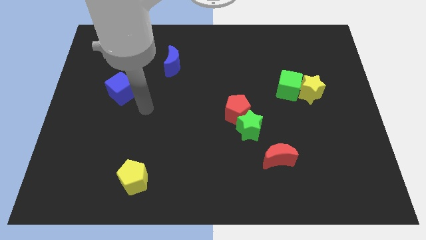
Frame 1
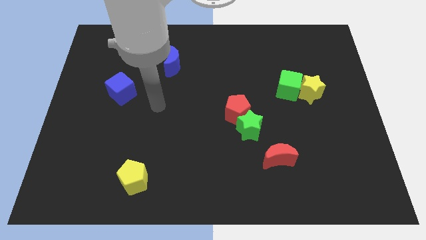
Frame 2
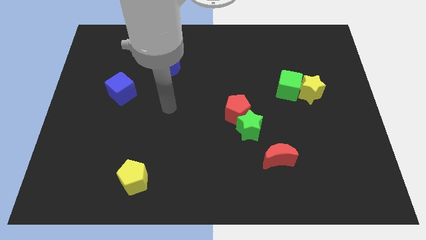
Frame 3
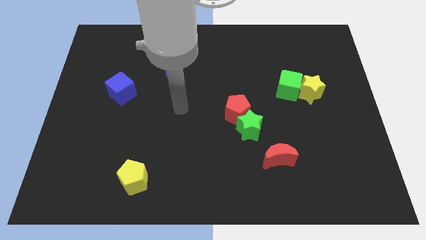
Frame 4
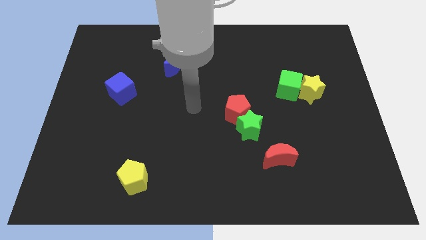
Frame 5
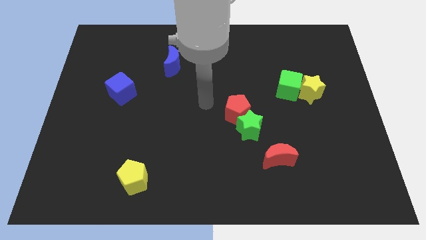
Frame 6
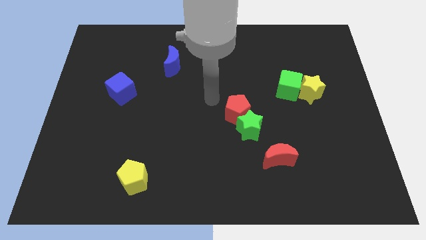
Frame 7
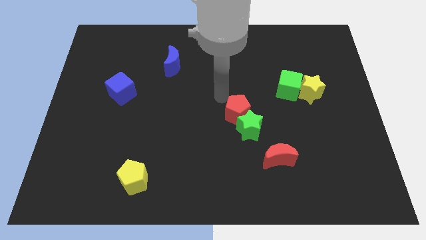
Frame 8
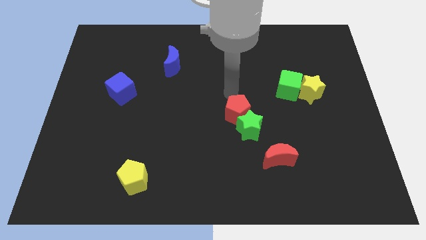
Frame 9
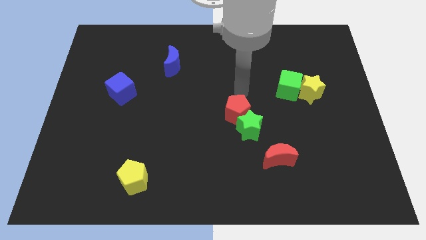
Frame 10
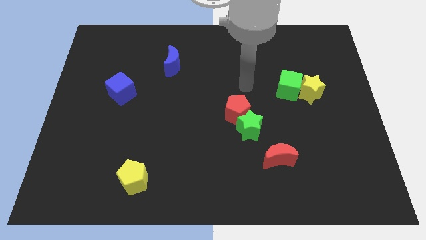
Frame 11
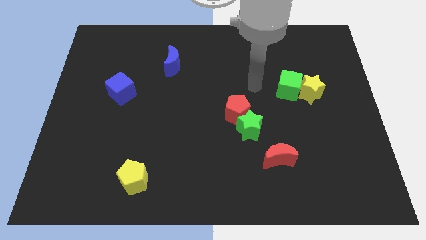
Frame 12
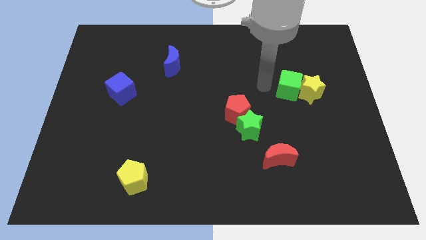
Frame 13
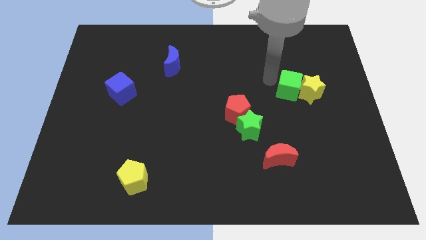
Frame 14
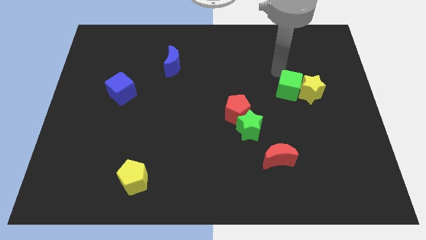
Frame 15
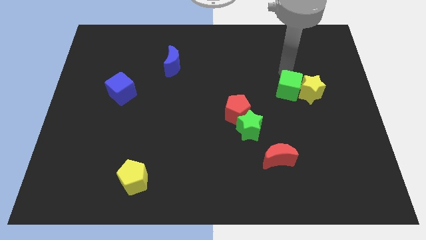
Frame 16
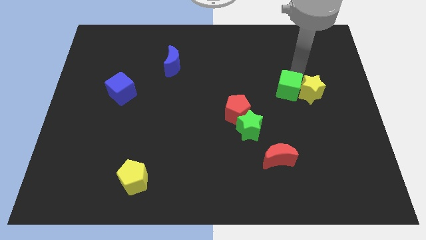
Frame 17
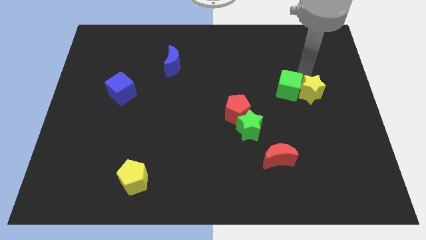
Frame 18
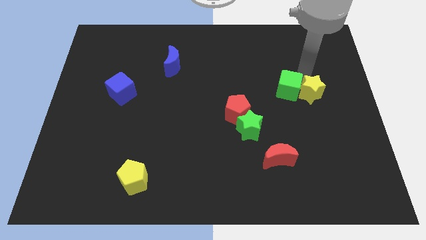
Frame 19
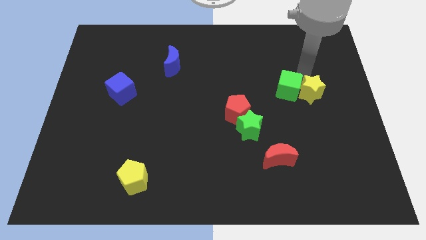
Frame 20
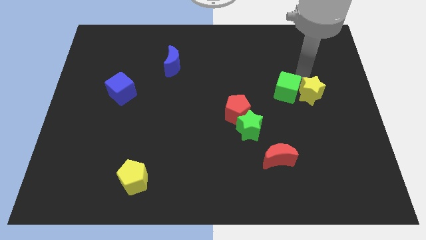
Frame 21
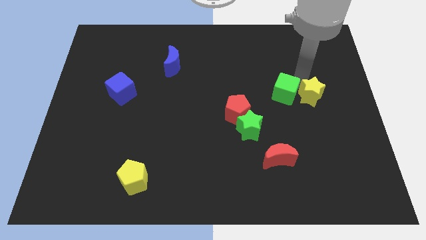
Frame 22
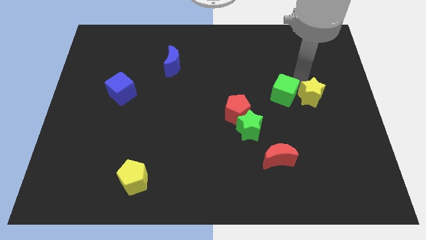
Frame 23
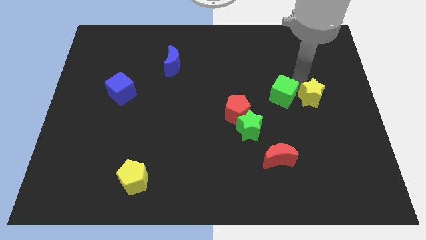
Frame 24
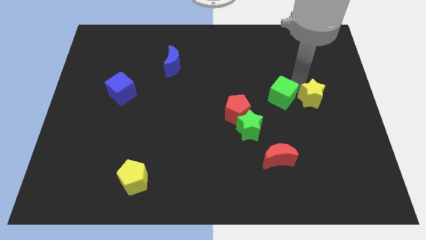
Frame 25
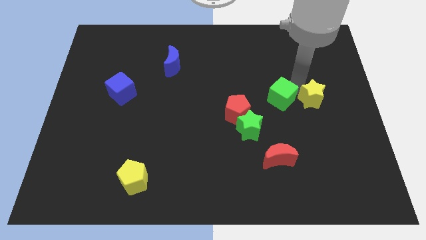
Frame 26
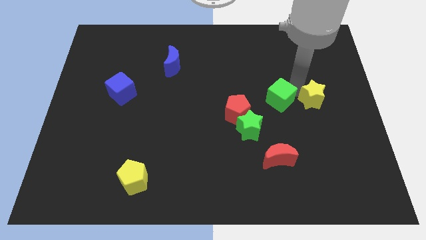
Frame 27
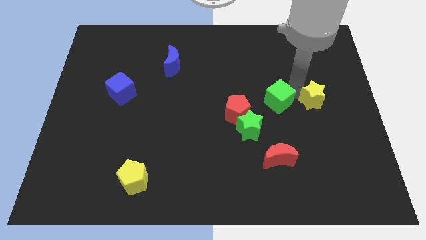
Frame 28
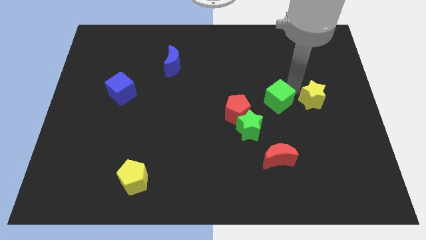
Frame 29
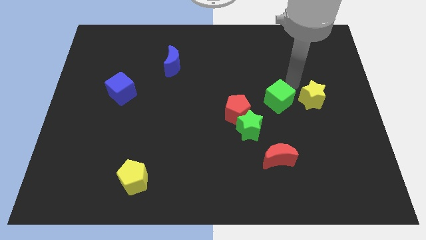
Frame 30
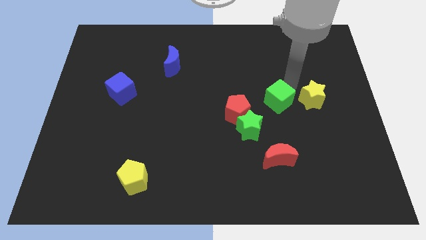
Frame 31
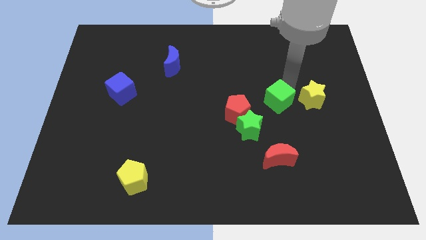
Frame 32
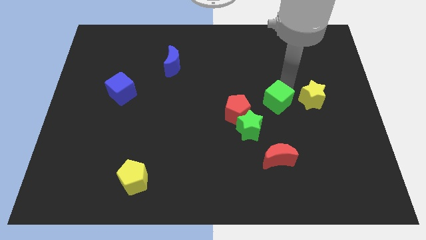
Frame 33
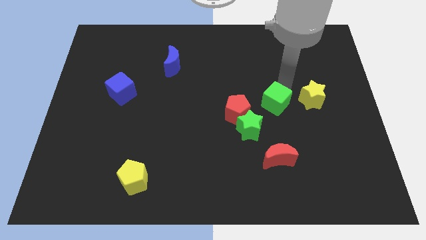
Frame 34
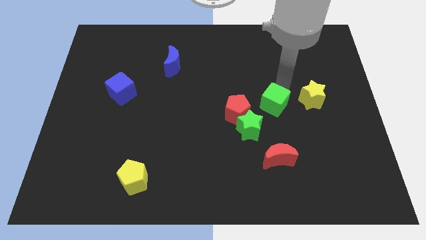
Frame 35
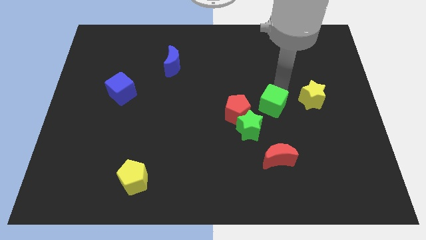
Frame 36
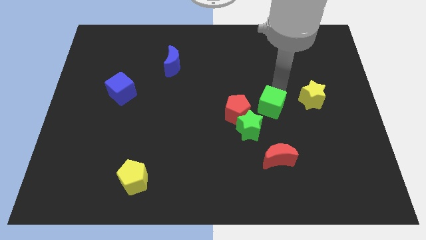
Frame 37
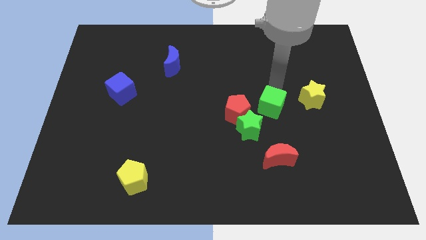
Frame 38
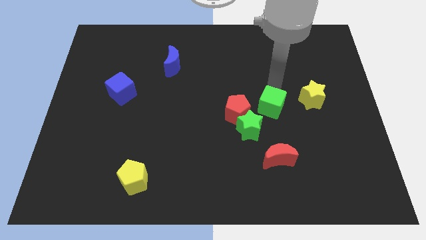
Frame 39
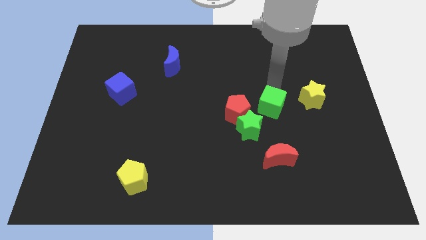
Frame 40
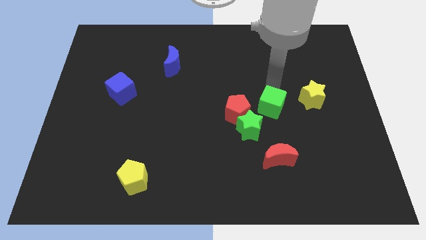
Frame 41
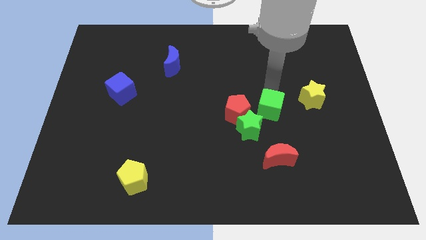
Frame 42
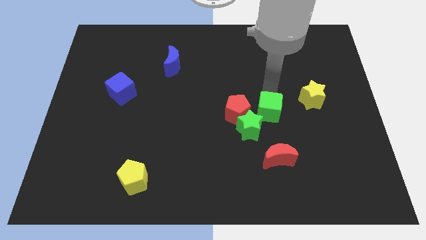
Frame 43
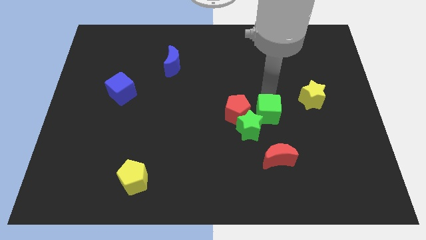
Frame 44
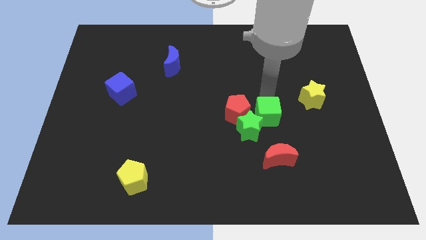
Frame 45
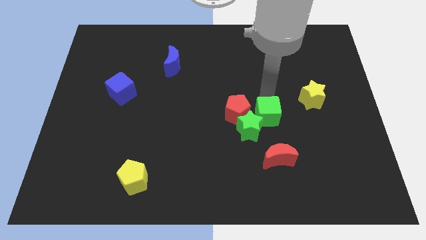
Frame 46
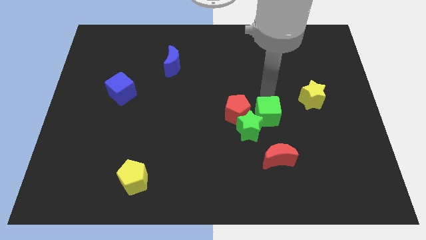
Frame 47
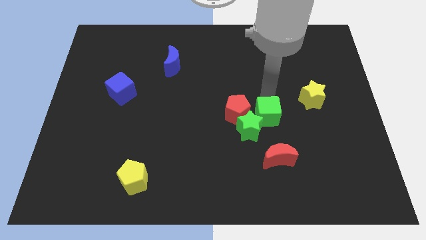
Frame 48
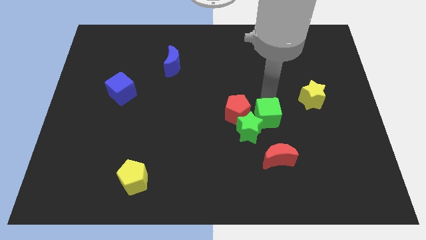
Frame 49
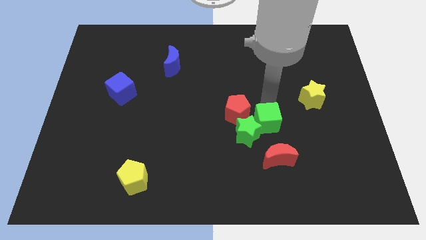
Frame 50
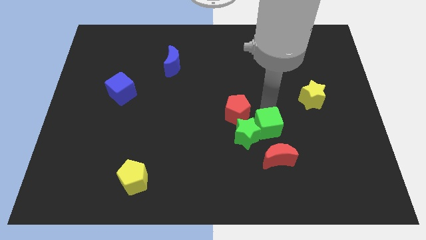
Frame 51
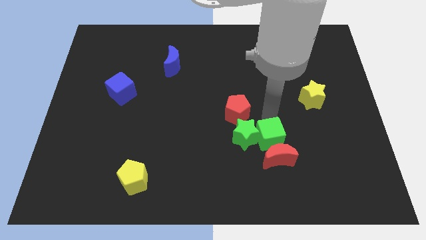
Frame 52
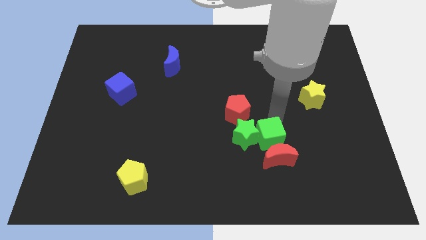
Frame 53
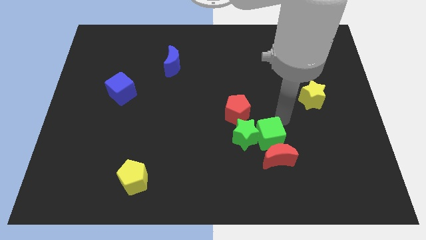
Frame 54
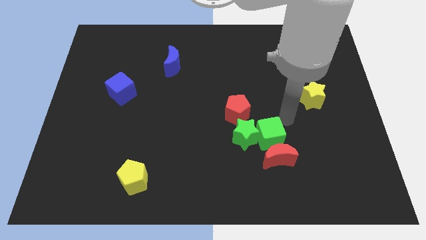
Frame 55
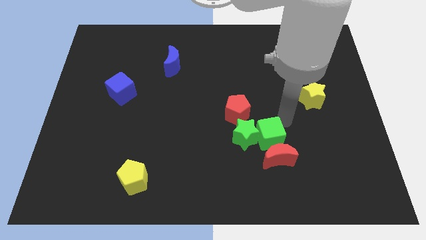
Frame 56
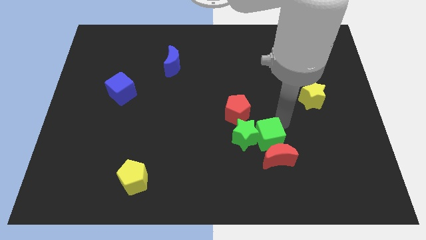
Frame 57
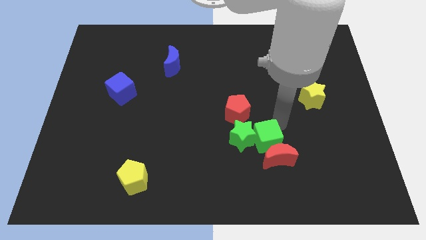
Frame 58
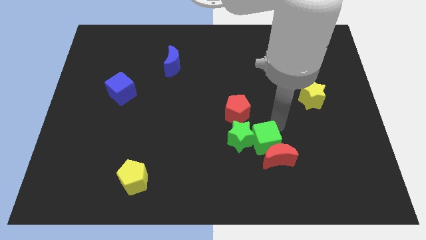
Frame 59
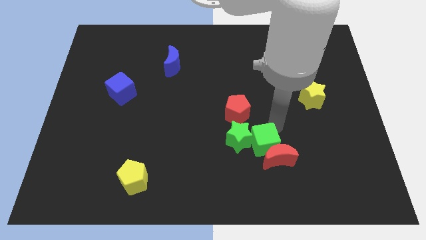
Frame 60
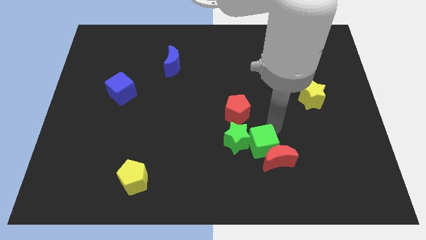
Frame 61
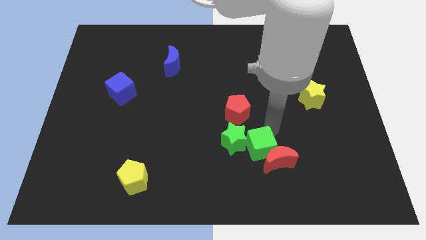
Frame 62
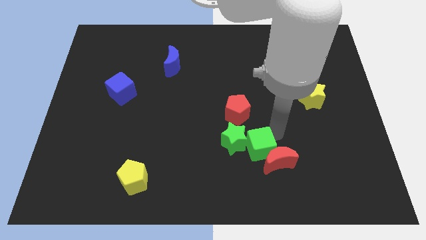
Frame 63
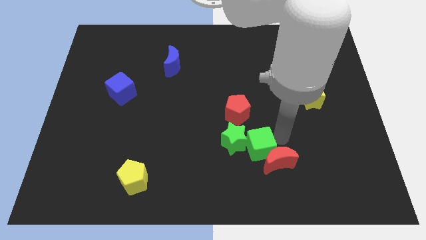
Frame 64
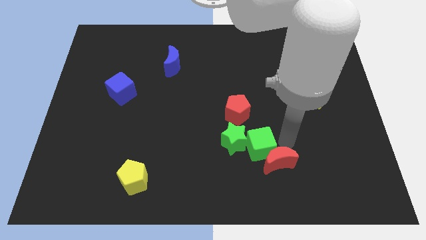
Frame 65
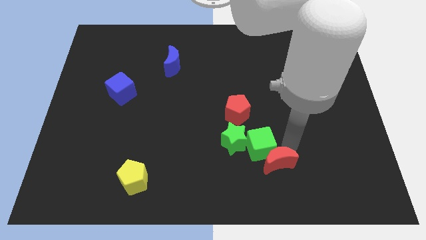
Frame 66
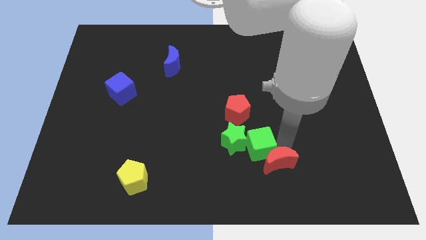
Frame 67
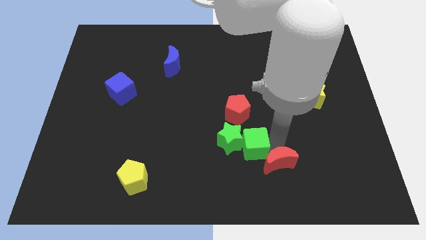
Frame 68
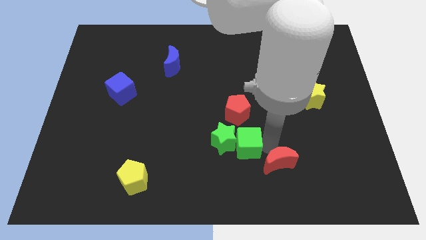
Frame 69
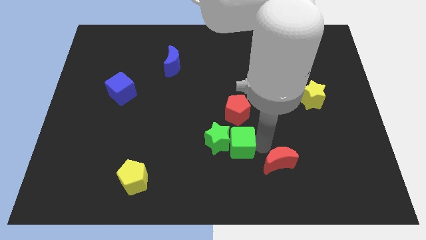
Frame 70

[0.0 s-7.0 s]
push the green cube diagonally down and left

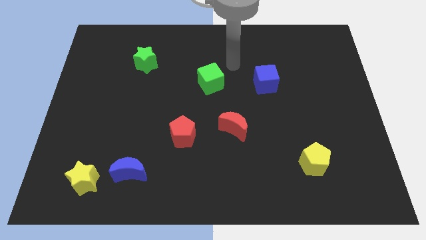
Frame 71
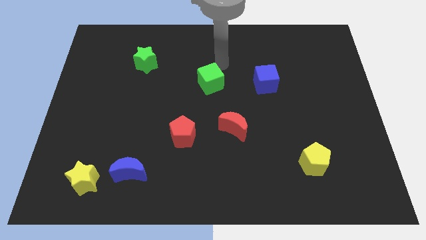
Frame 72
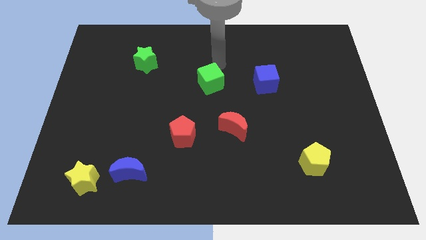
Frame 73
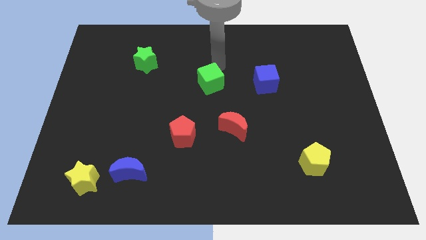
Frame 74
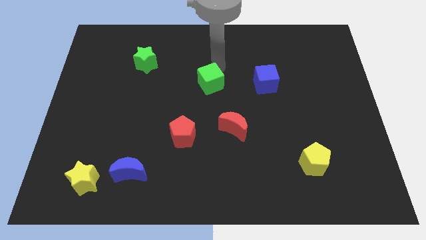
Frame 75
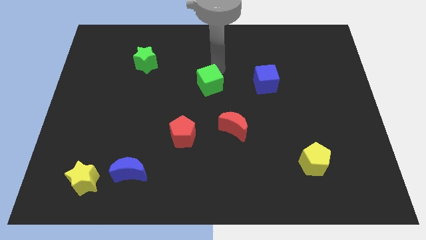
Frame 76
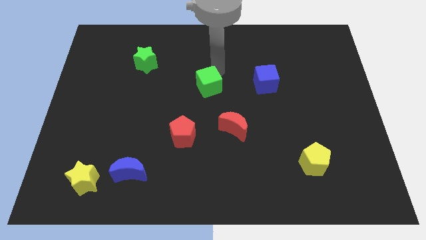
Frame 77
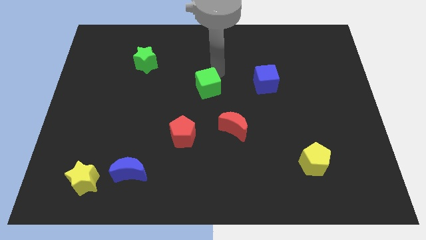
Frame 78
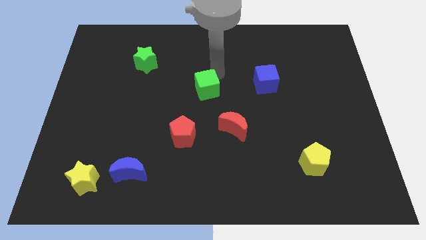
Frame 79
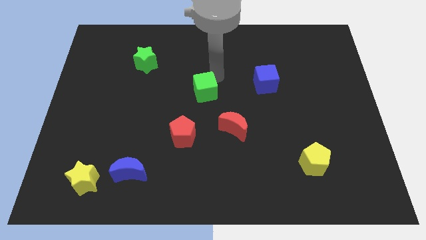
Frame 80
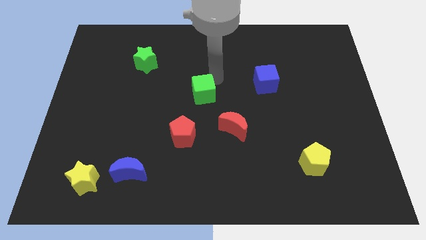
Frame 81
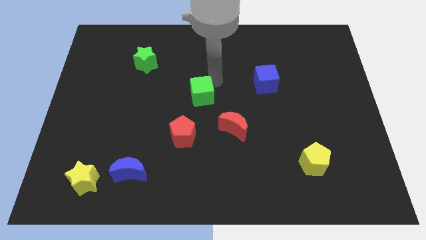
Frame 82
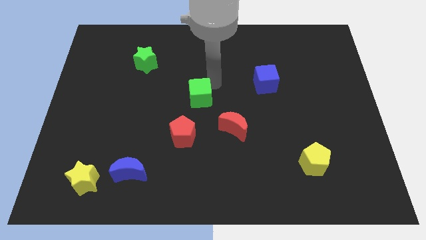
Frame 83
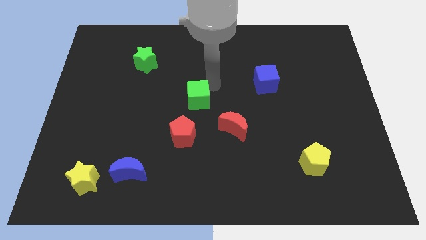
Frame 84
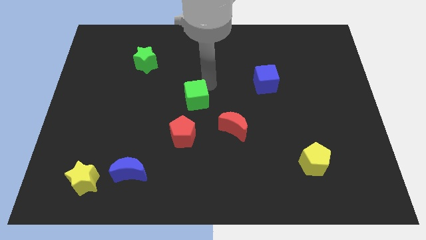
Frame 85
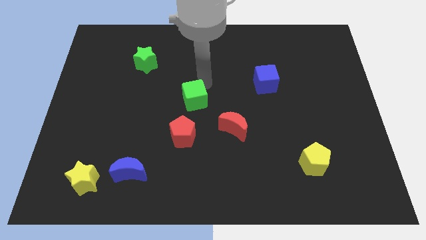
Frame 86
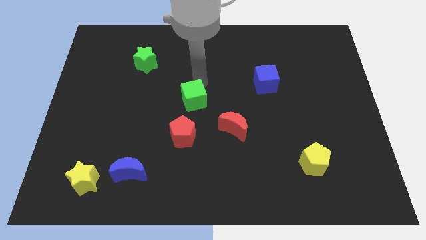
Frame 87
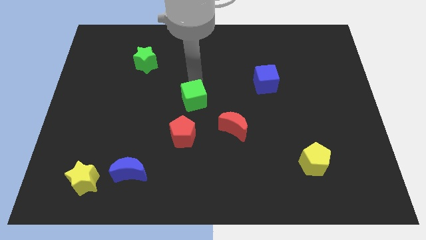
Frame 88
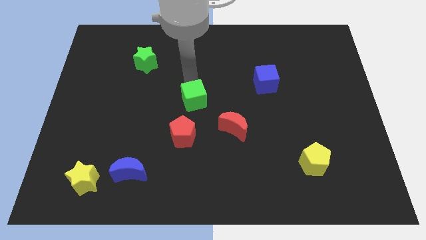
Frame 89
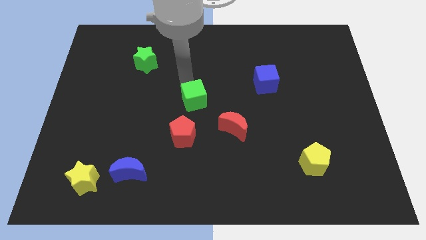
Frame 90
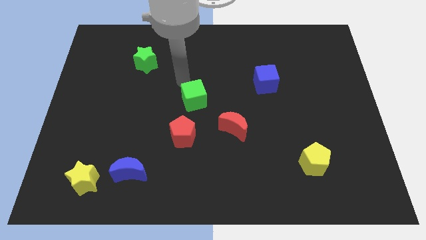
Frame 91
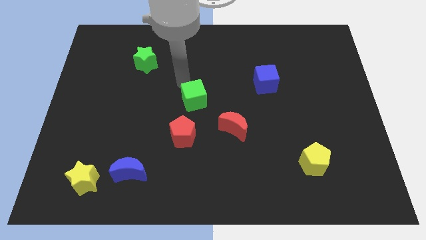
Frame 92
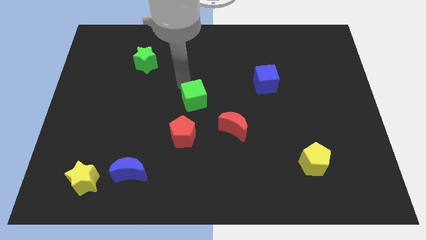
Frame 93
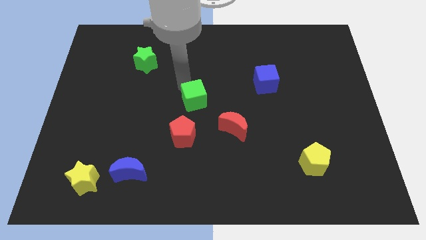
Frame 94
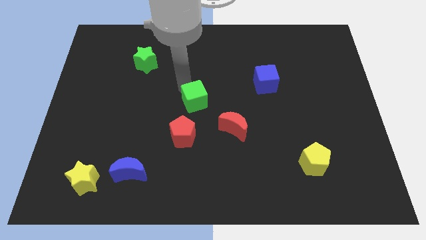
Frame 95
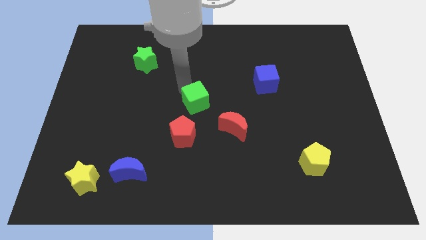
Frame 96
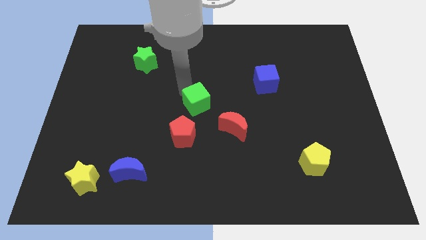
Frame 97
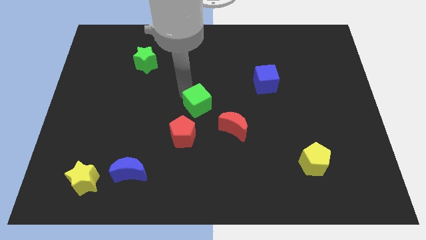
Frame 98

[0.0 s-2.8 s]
push the green cube slightly downwards
